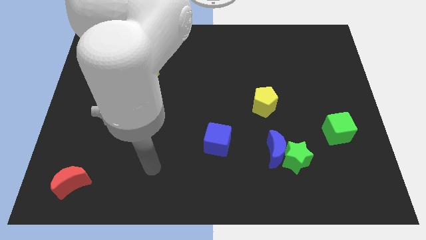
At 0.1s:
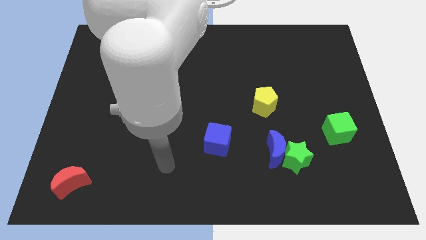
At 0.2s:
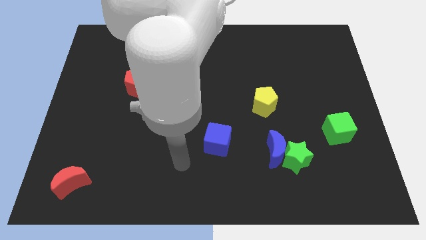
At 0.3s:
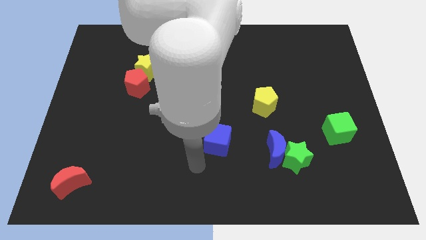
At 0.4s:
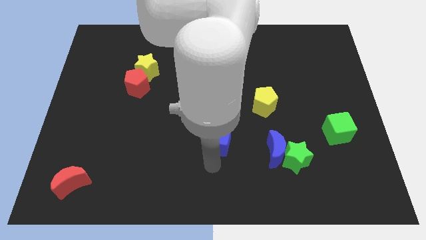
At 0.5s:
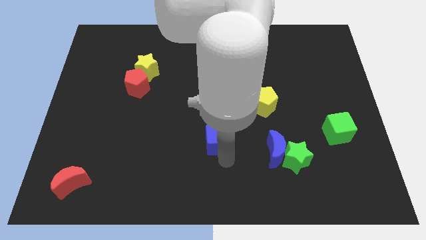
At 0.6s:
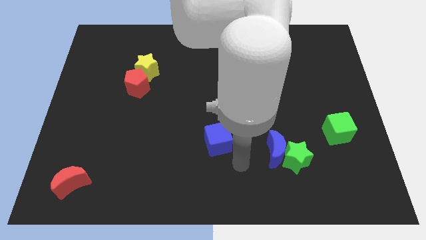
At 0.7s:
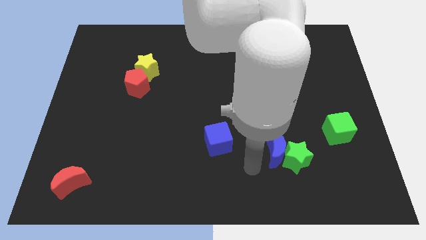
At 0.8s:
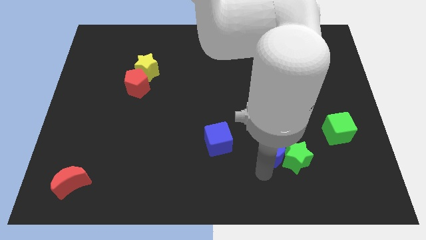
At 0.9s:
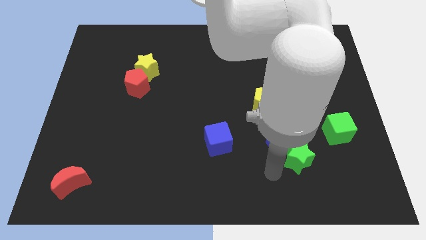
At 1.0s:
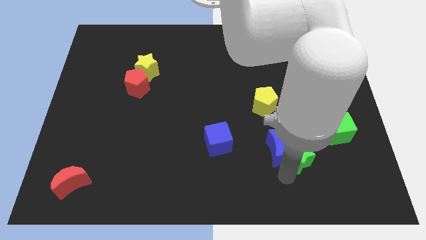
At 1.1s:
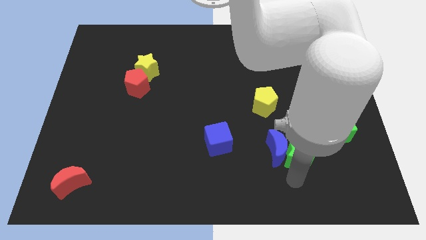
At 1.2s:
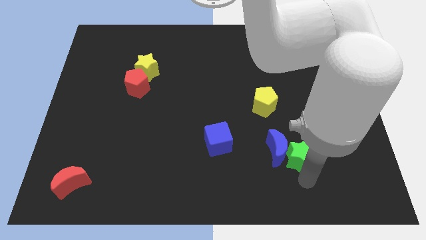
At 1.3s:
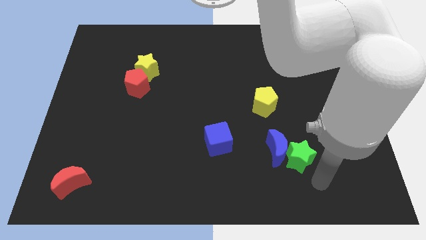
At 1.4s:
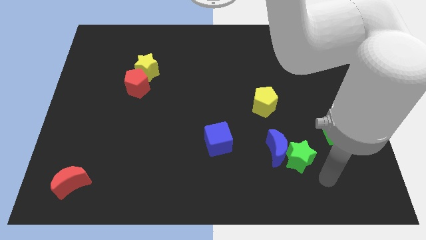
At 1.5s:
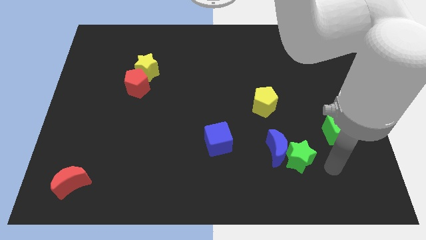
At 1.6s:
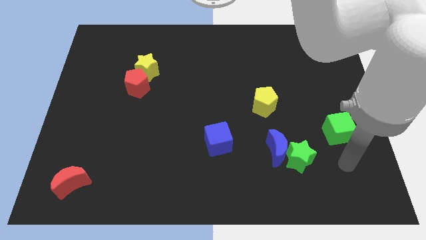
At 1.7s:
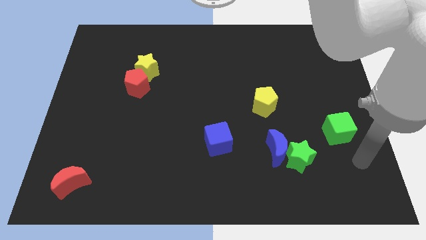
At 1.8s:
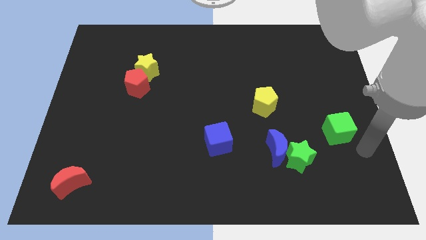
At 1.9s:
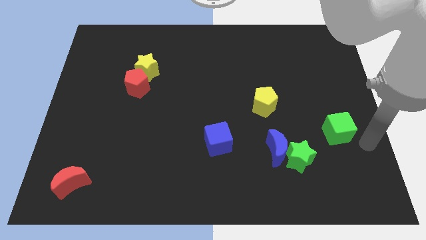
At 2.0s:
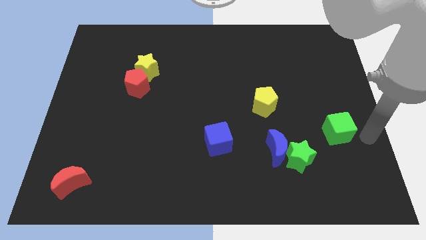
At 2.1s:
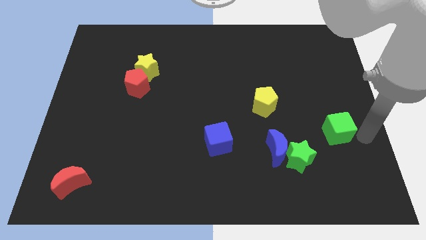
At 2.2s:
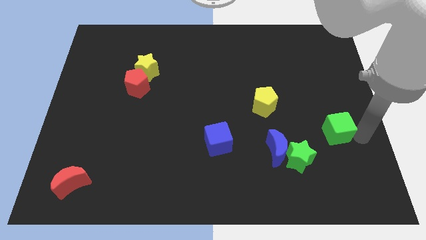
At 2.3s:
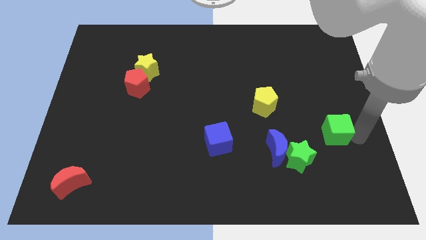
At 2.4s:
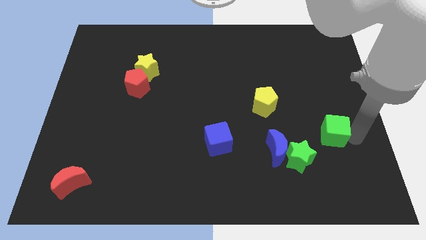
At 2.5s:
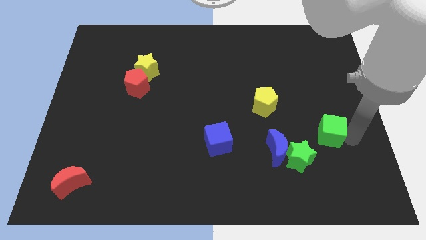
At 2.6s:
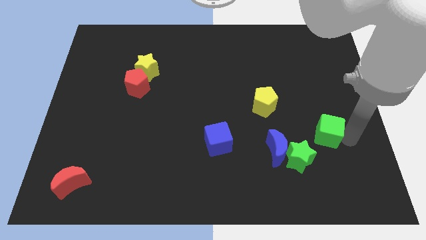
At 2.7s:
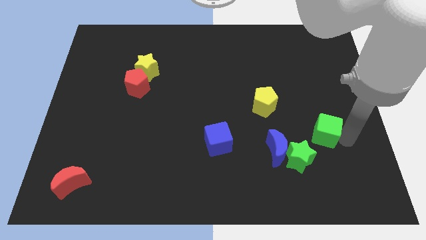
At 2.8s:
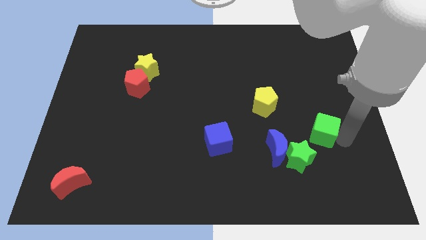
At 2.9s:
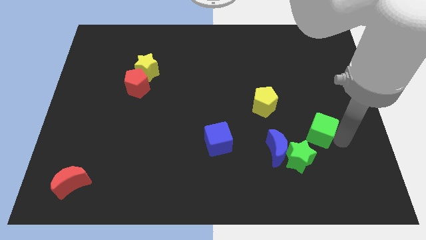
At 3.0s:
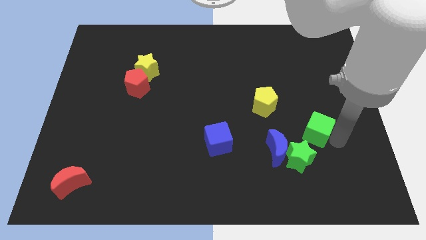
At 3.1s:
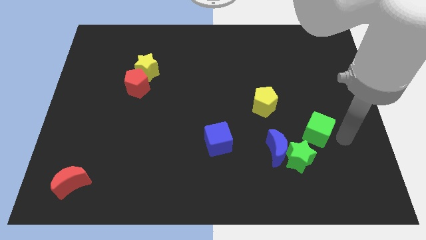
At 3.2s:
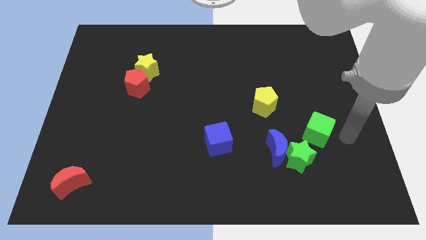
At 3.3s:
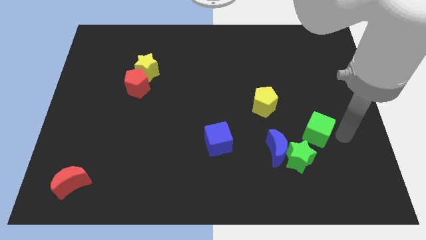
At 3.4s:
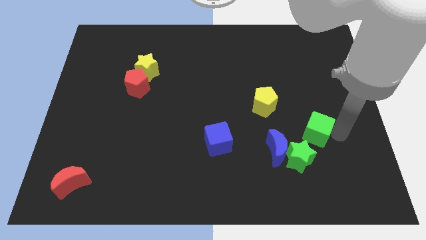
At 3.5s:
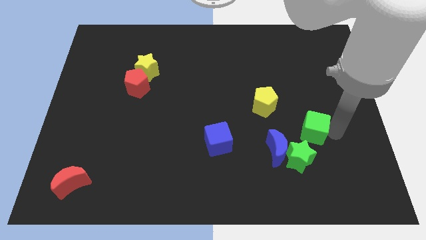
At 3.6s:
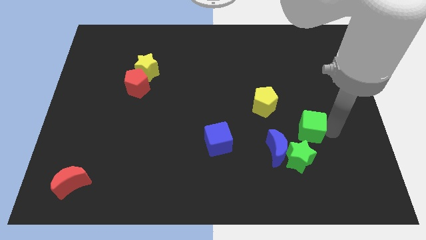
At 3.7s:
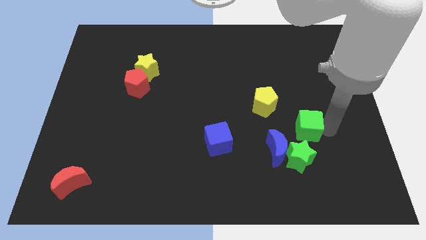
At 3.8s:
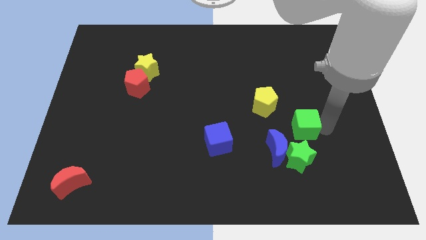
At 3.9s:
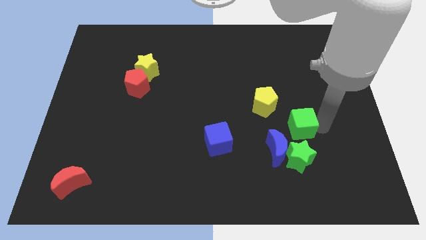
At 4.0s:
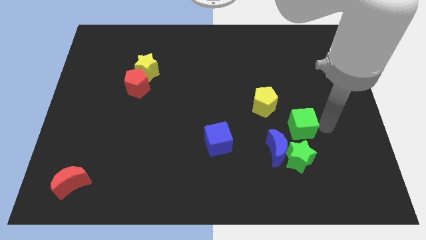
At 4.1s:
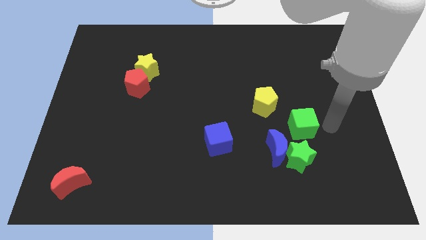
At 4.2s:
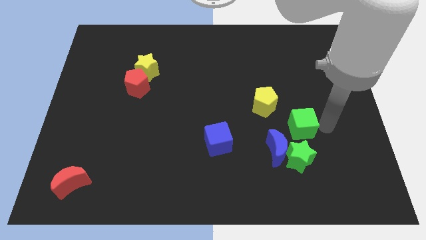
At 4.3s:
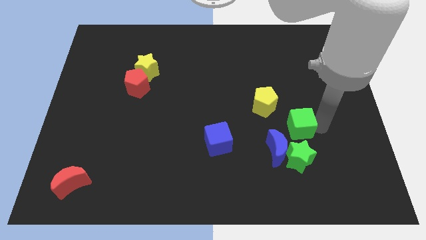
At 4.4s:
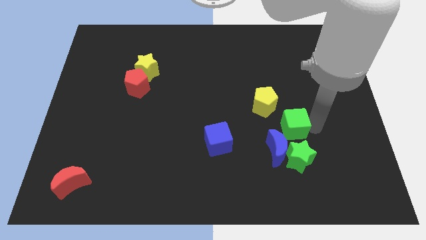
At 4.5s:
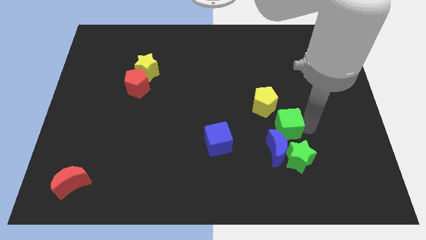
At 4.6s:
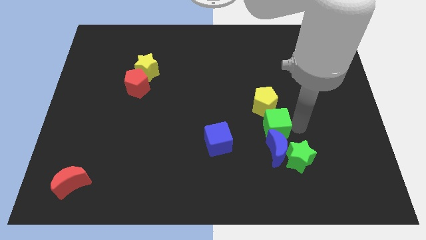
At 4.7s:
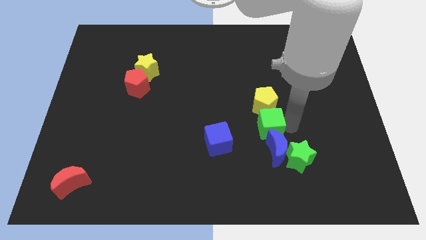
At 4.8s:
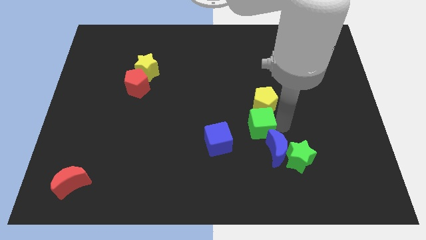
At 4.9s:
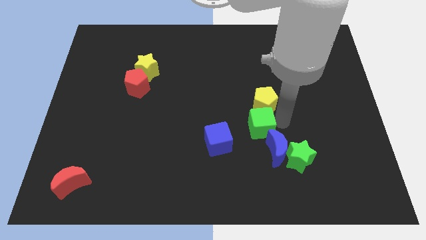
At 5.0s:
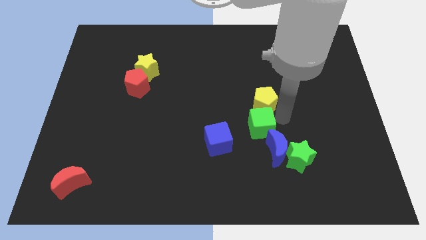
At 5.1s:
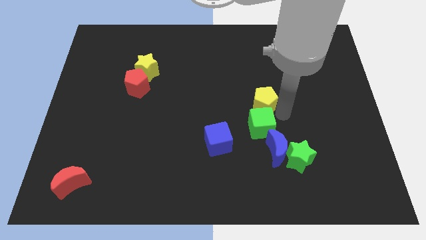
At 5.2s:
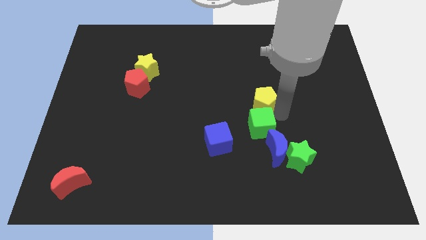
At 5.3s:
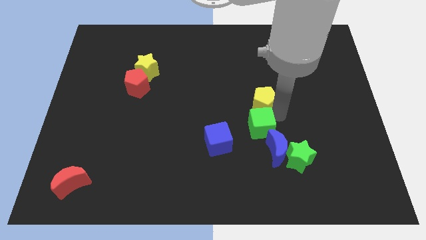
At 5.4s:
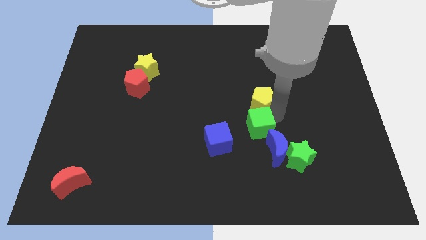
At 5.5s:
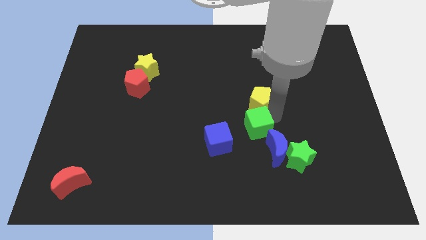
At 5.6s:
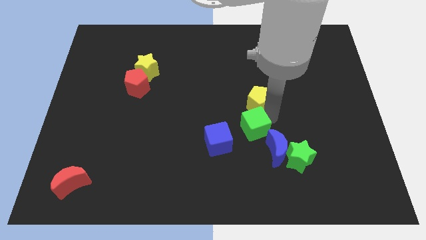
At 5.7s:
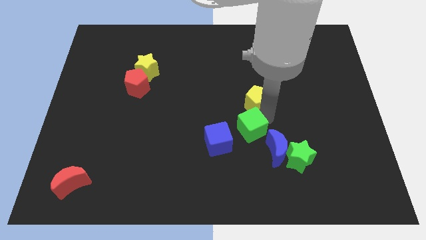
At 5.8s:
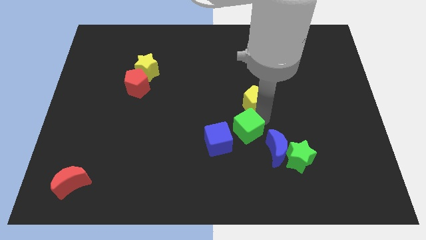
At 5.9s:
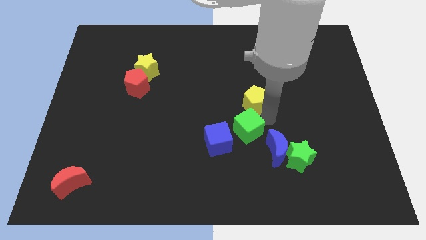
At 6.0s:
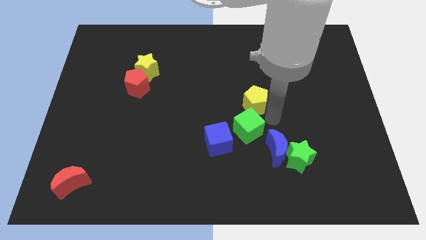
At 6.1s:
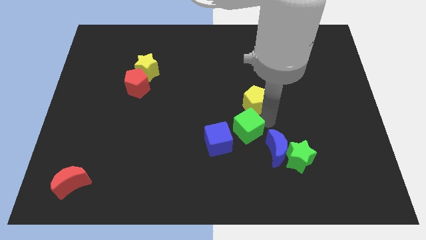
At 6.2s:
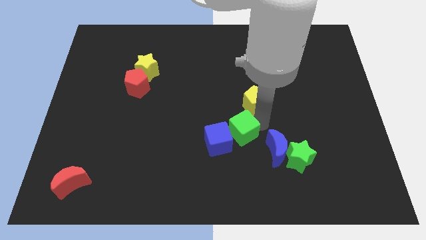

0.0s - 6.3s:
move the green cube close to the blue cube

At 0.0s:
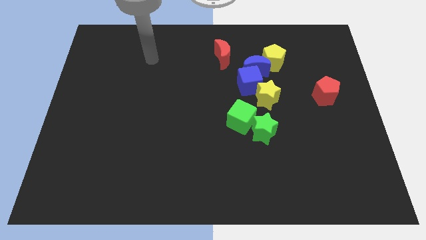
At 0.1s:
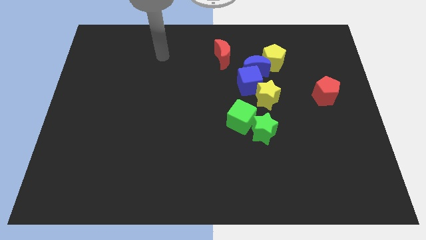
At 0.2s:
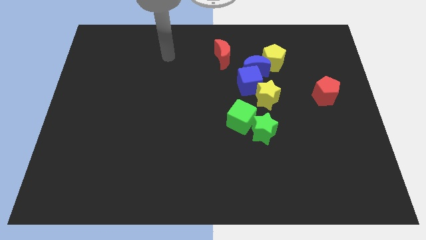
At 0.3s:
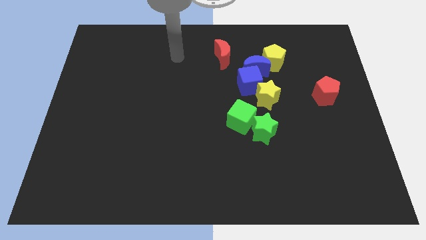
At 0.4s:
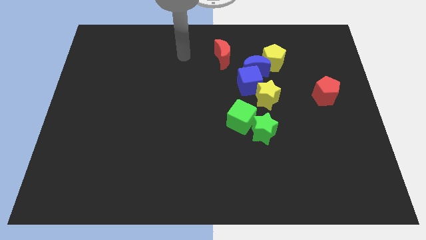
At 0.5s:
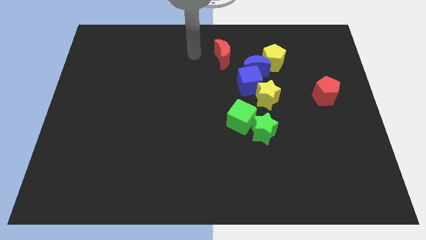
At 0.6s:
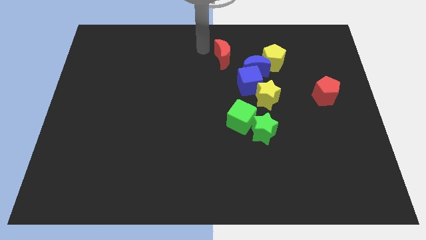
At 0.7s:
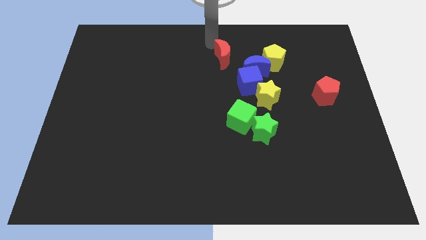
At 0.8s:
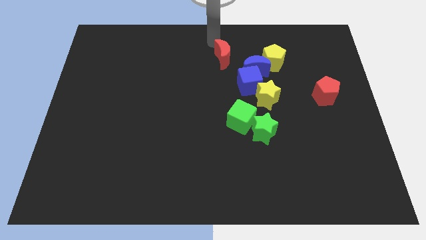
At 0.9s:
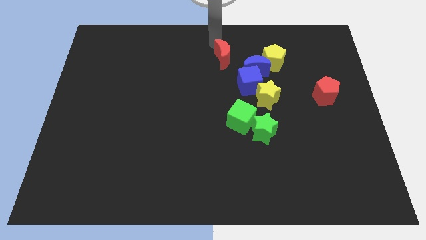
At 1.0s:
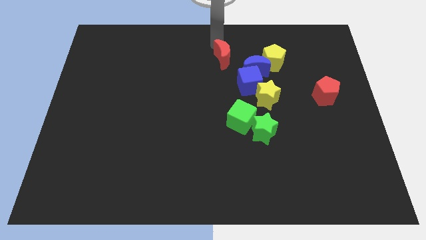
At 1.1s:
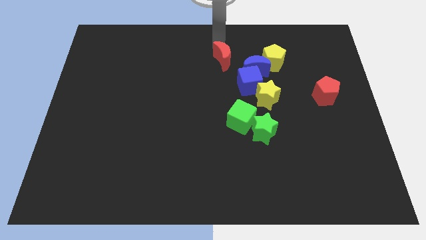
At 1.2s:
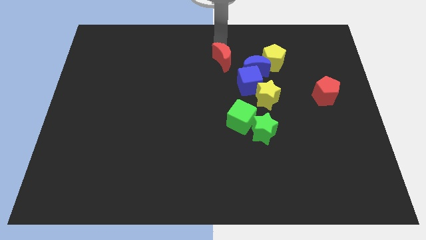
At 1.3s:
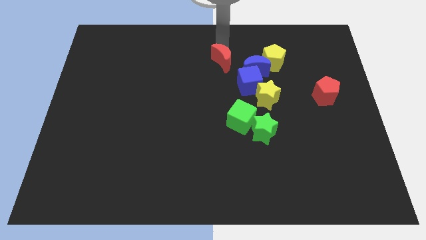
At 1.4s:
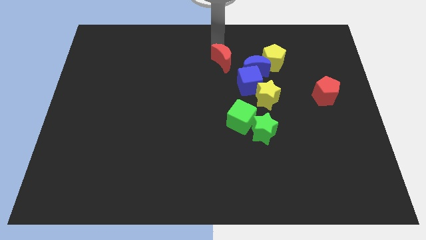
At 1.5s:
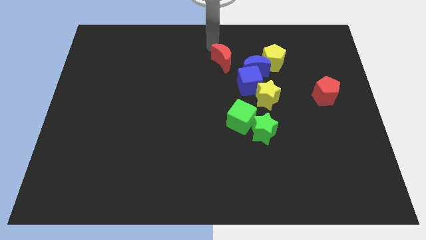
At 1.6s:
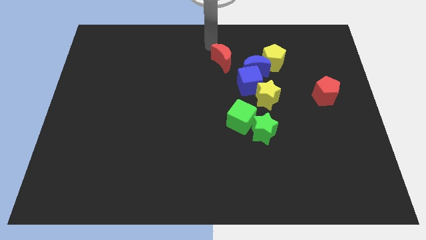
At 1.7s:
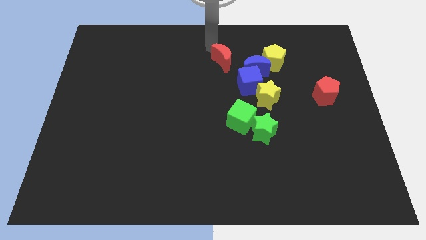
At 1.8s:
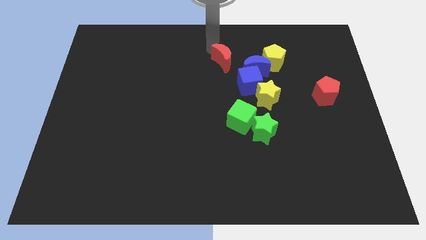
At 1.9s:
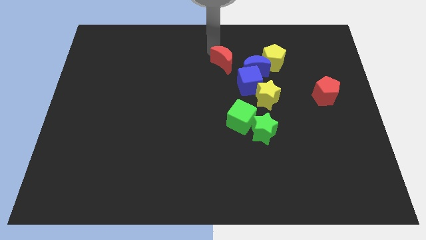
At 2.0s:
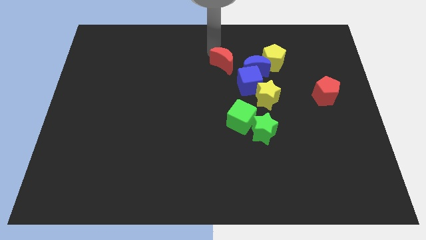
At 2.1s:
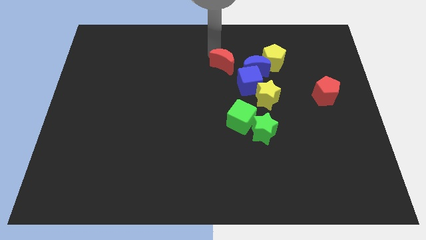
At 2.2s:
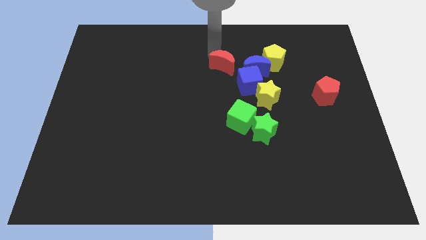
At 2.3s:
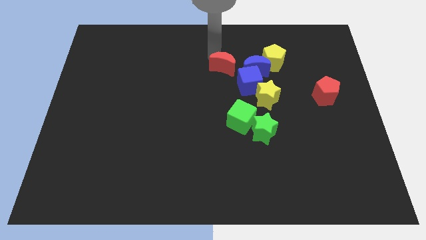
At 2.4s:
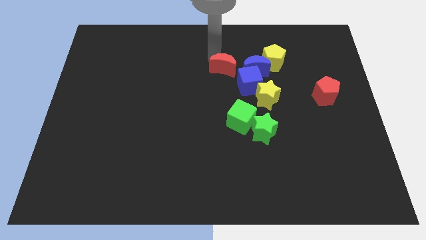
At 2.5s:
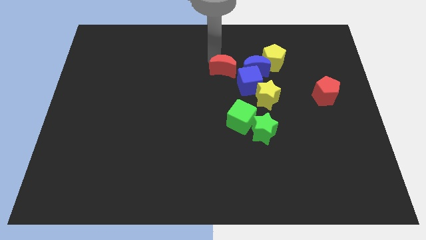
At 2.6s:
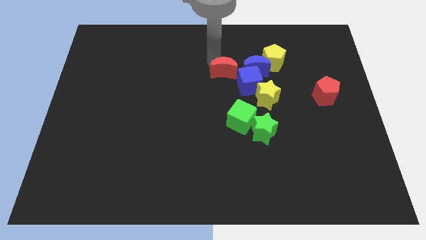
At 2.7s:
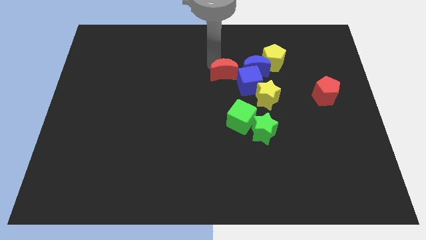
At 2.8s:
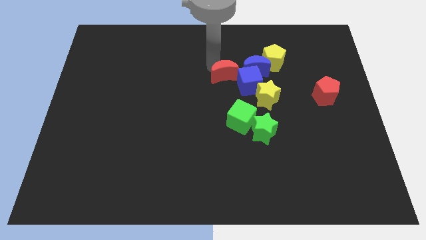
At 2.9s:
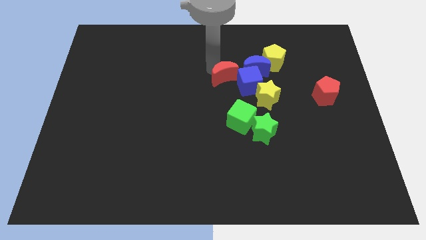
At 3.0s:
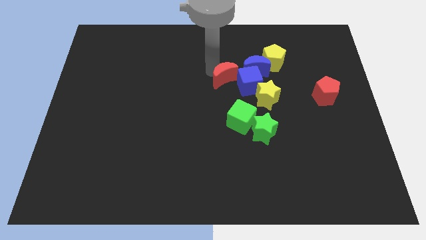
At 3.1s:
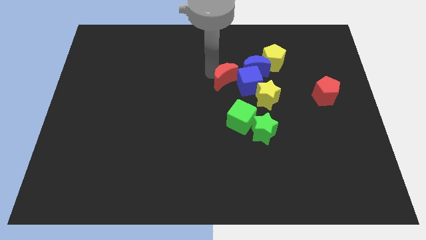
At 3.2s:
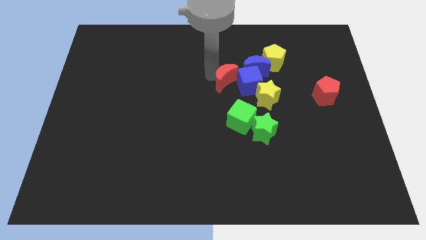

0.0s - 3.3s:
slide the red moon to the blue cube
